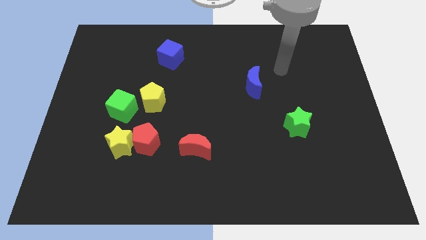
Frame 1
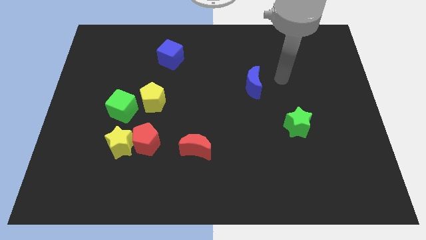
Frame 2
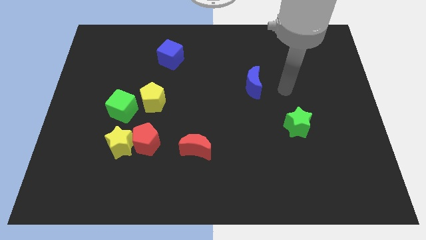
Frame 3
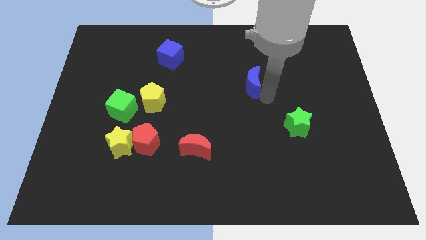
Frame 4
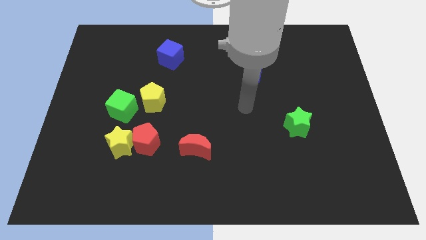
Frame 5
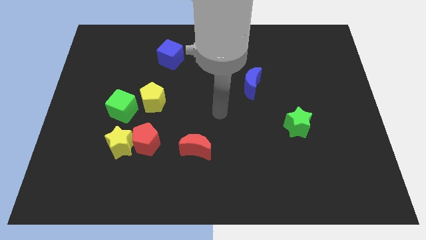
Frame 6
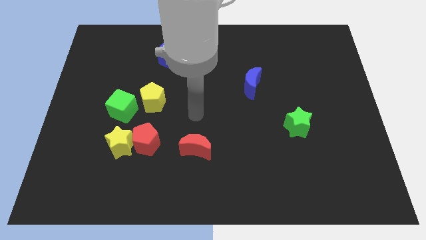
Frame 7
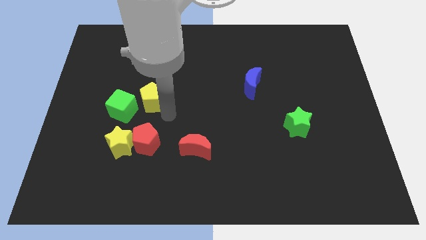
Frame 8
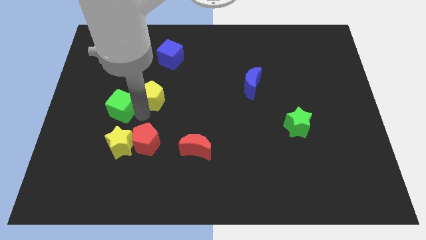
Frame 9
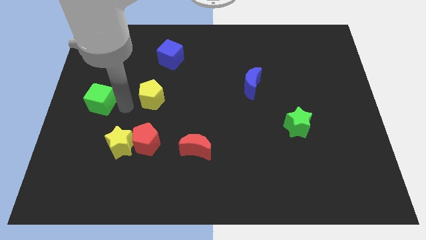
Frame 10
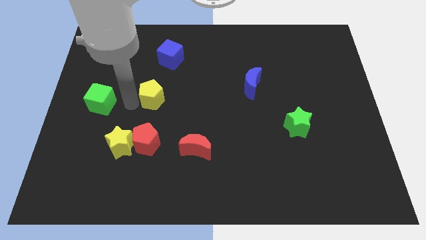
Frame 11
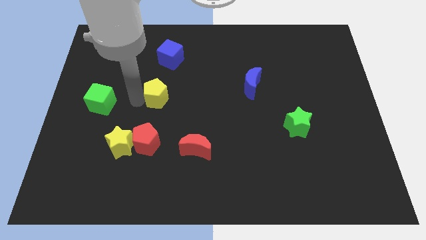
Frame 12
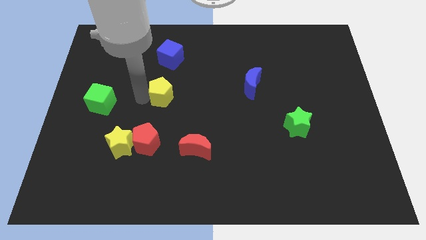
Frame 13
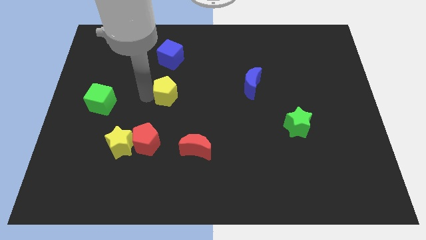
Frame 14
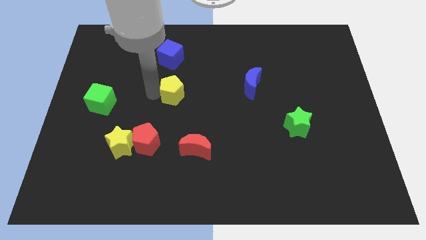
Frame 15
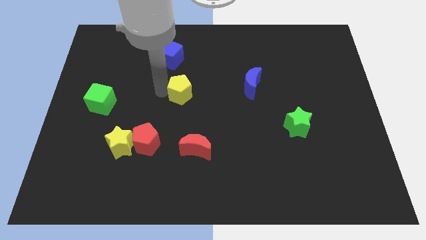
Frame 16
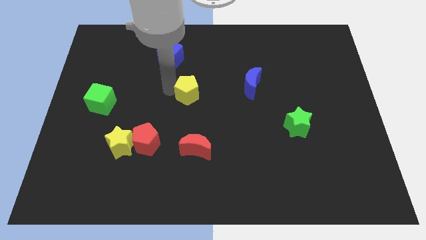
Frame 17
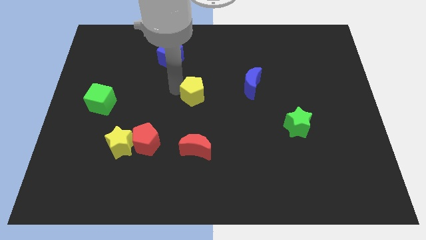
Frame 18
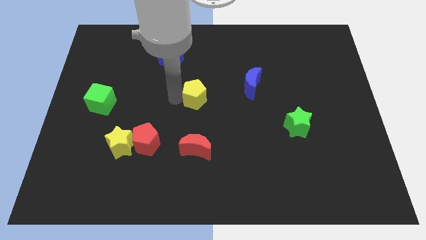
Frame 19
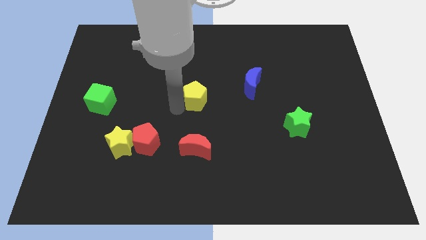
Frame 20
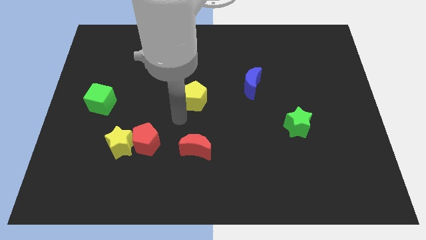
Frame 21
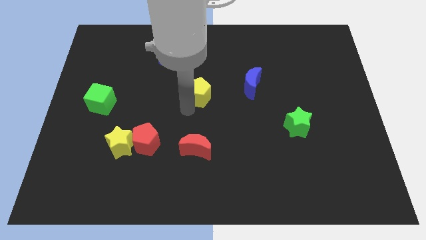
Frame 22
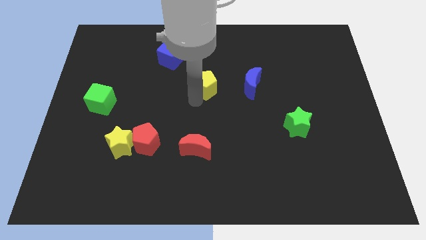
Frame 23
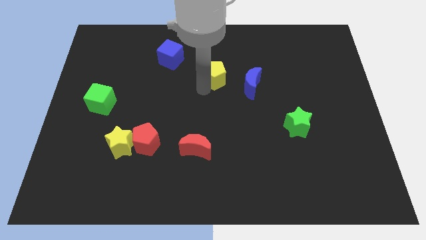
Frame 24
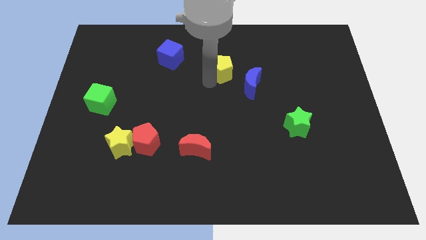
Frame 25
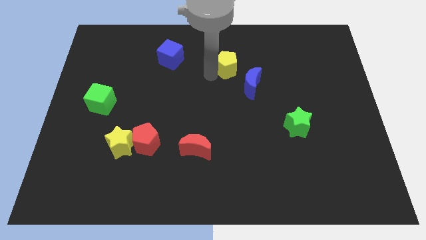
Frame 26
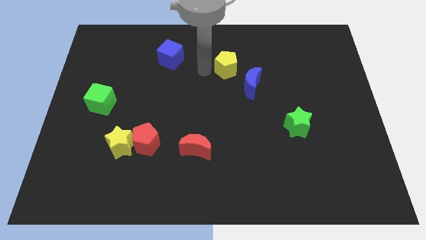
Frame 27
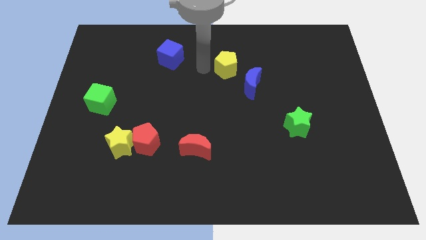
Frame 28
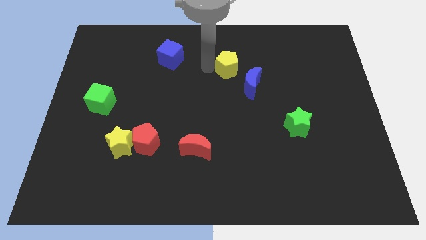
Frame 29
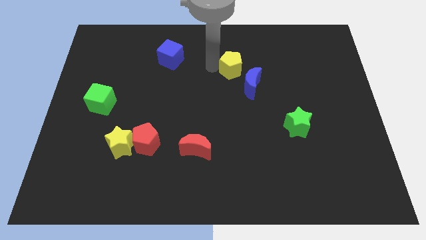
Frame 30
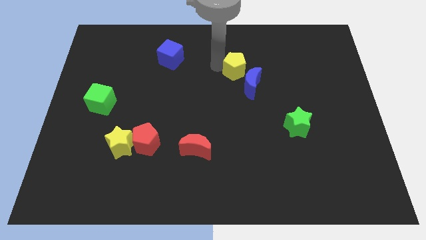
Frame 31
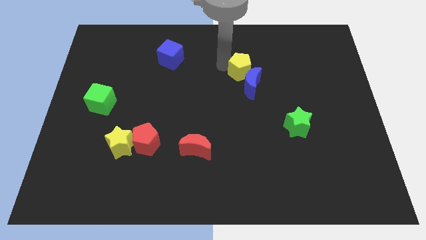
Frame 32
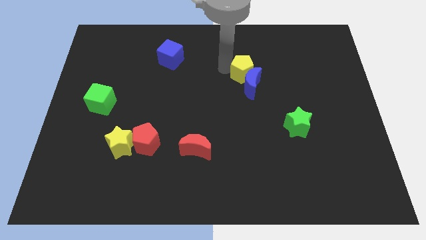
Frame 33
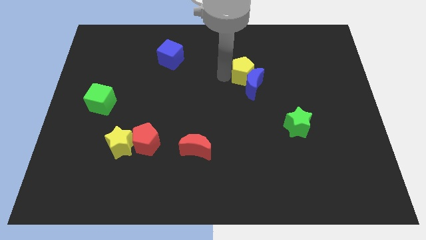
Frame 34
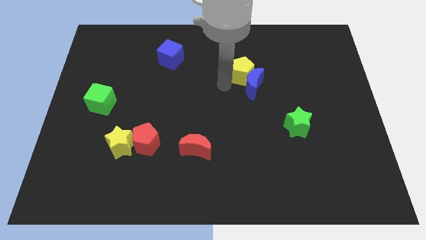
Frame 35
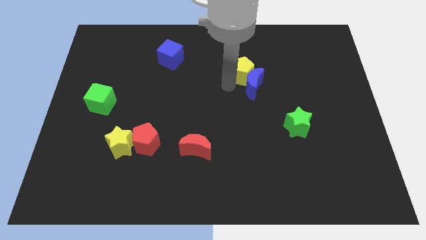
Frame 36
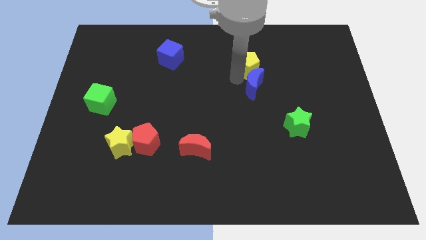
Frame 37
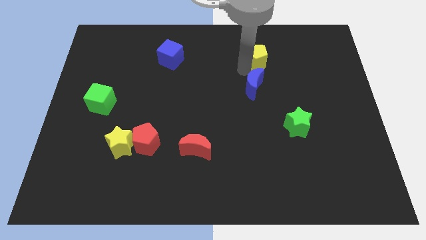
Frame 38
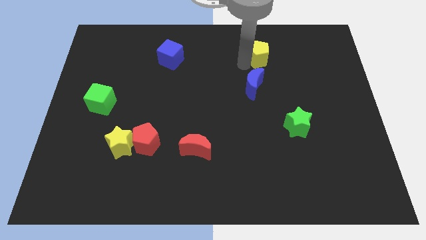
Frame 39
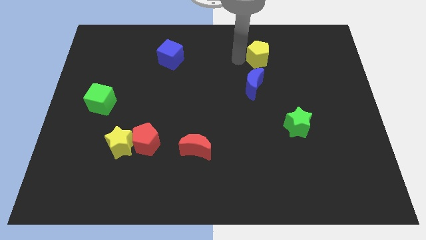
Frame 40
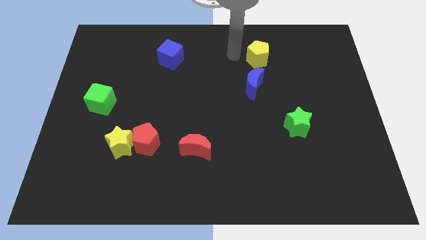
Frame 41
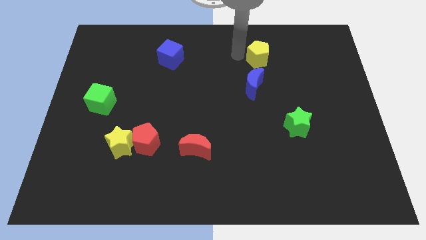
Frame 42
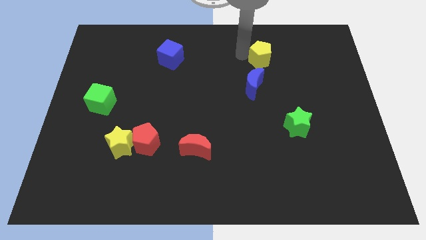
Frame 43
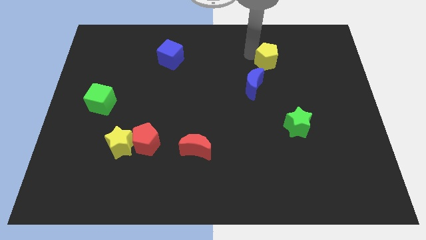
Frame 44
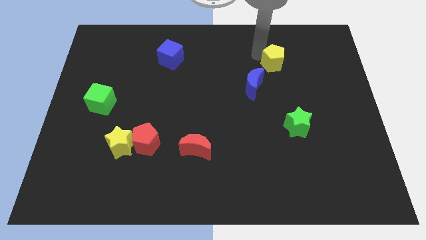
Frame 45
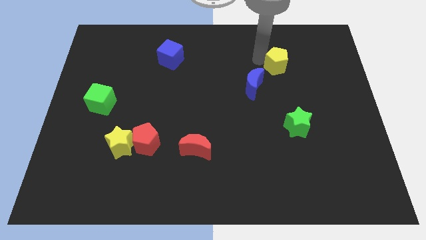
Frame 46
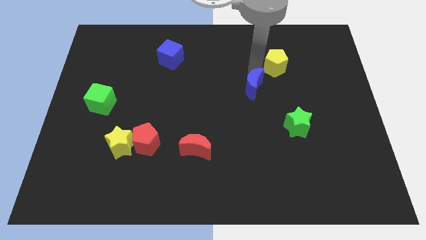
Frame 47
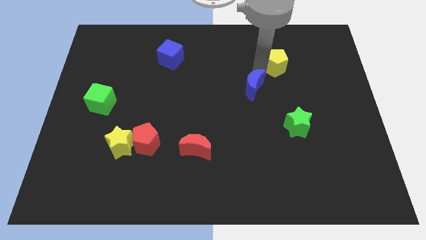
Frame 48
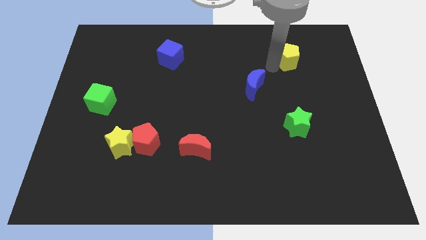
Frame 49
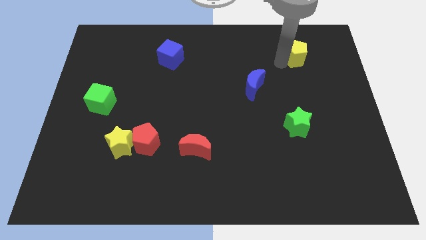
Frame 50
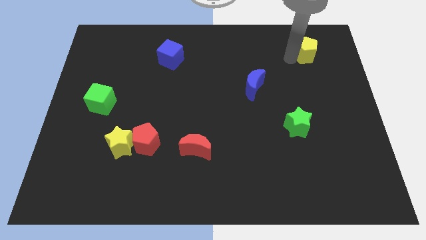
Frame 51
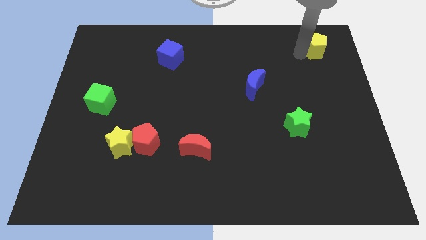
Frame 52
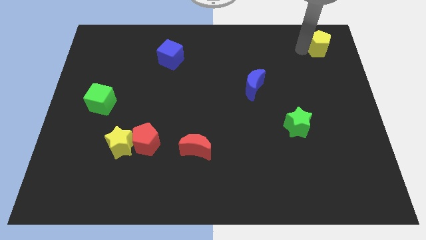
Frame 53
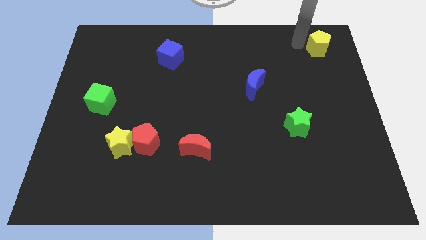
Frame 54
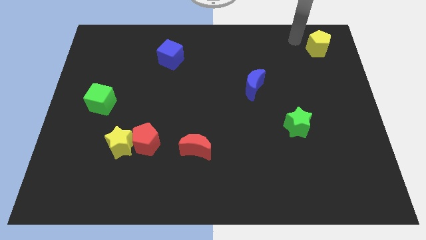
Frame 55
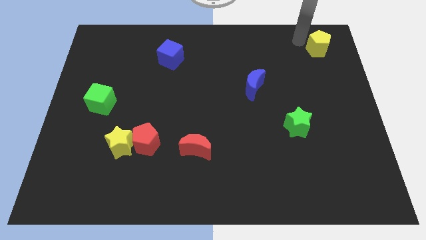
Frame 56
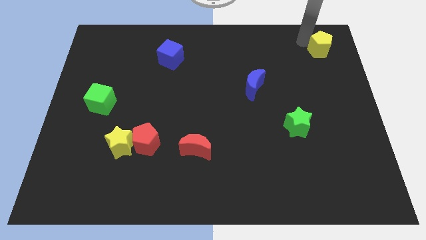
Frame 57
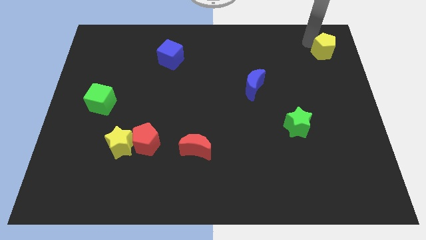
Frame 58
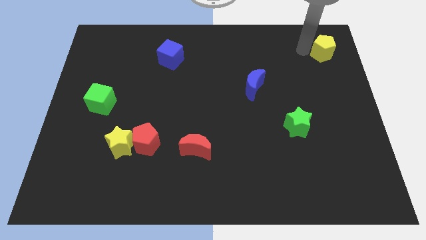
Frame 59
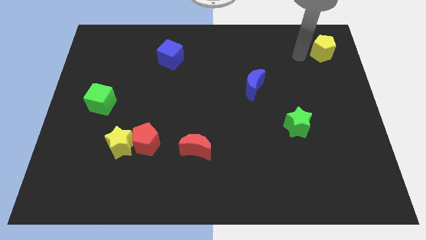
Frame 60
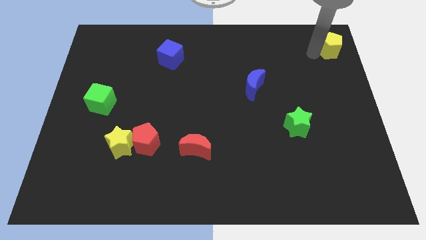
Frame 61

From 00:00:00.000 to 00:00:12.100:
slide the yellow pentagon to the top right of the board
